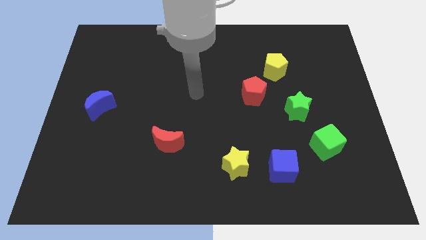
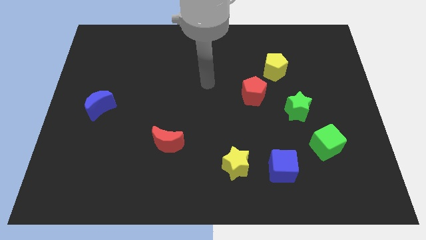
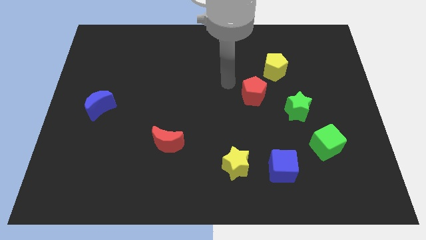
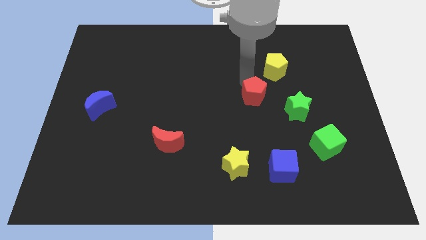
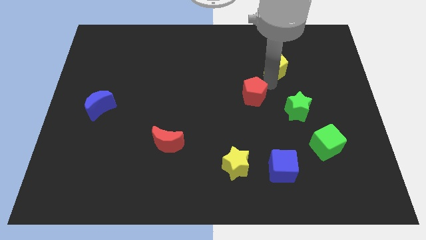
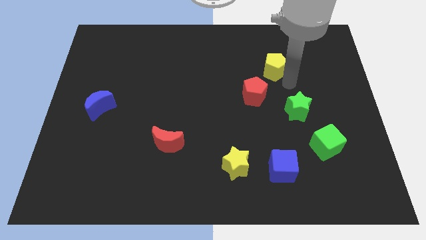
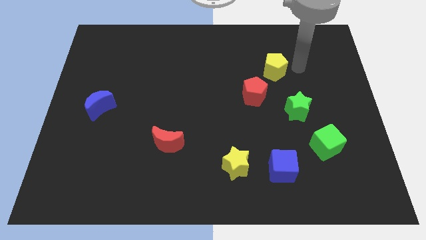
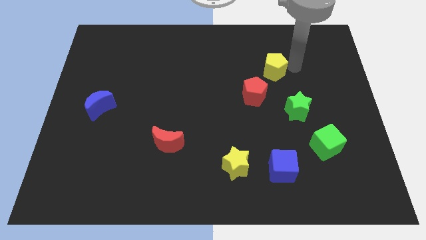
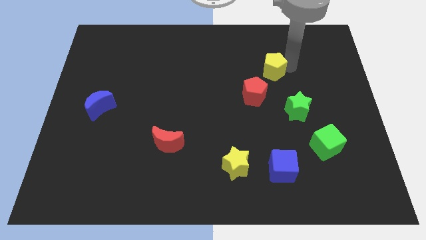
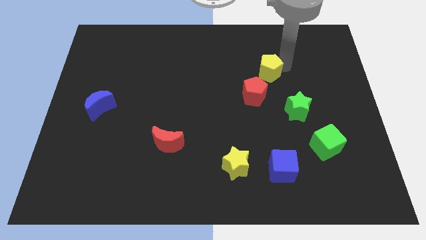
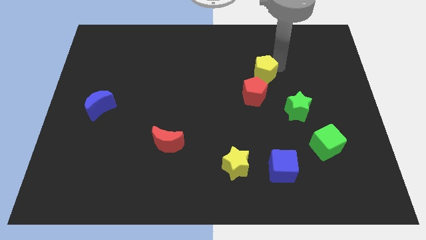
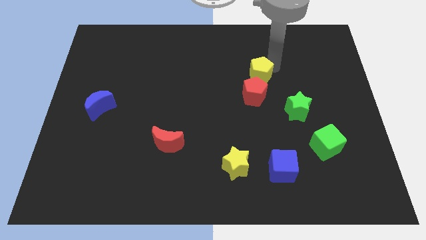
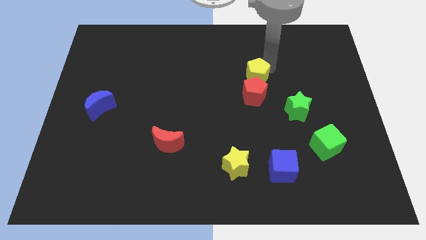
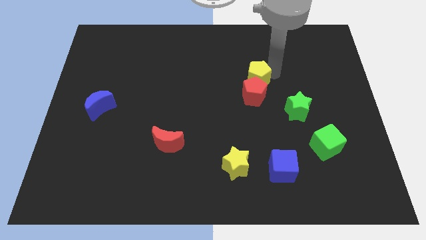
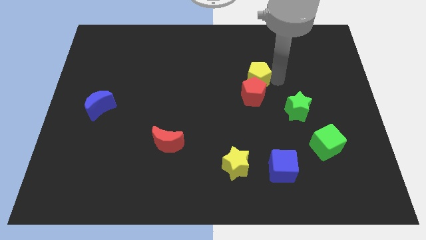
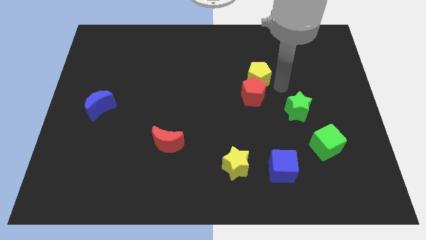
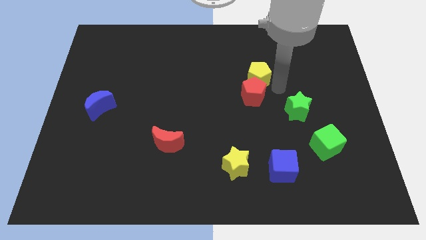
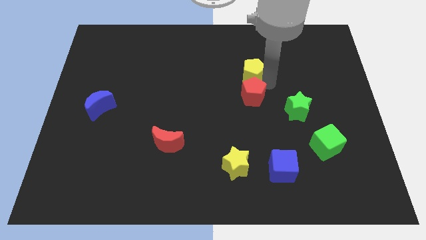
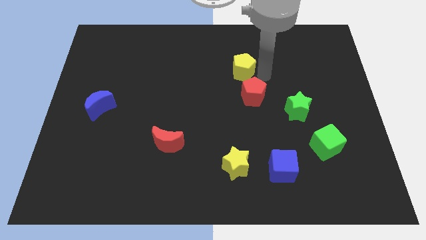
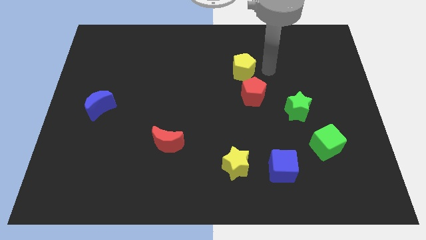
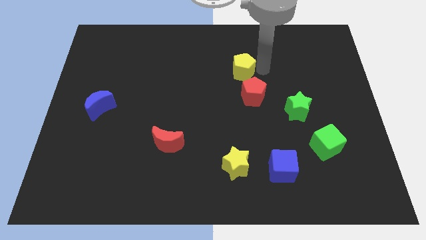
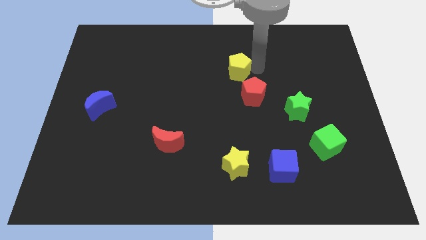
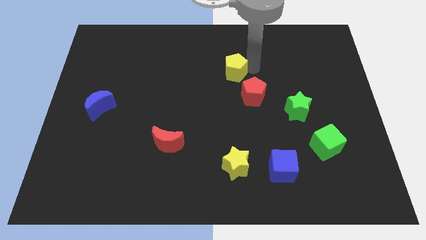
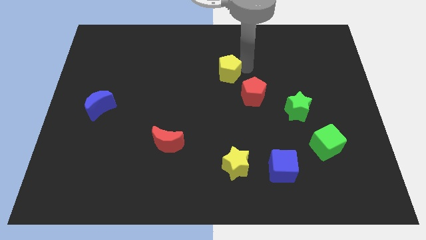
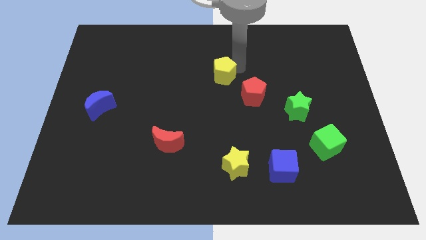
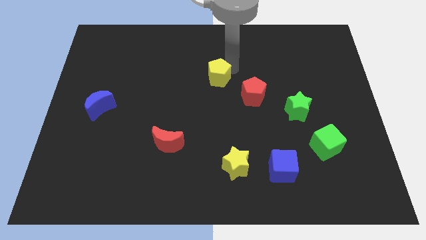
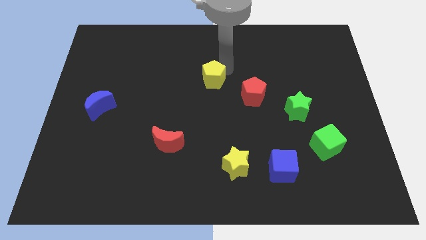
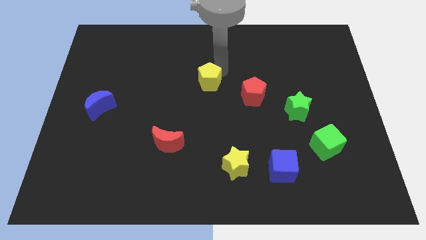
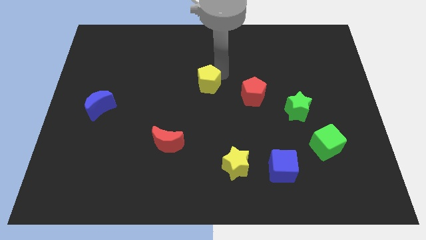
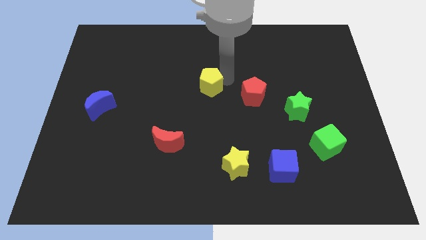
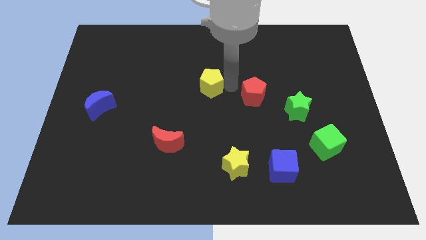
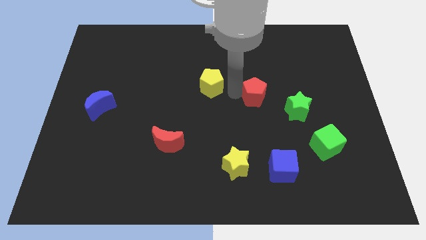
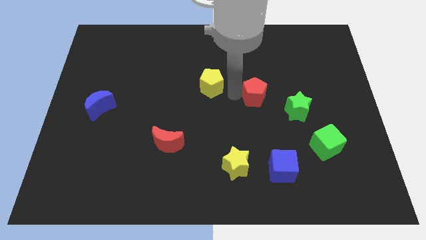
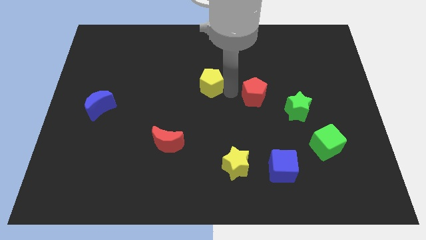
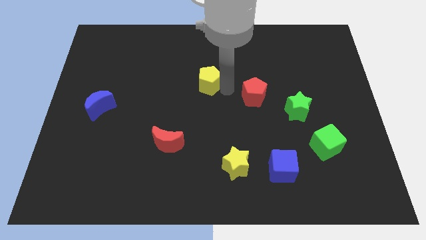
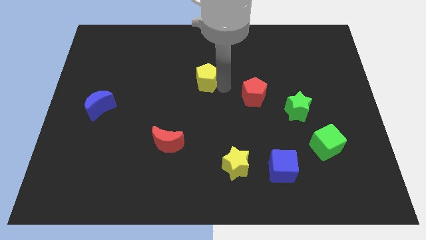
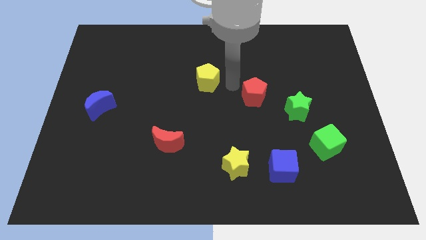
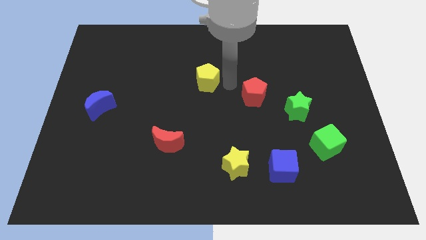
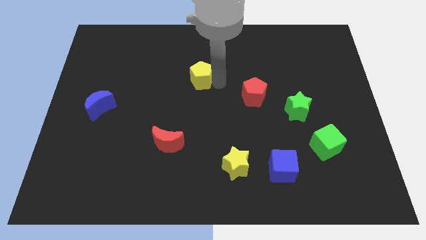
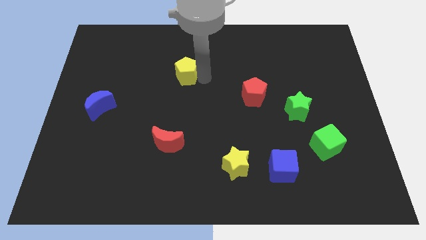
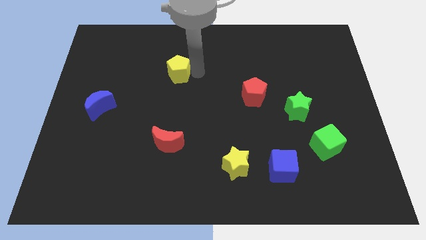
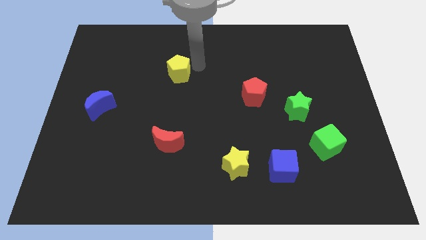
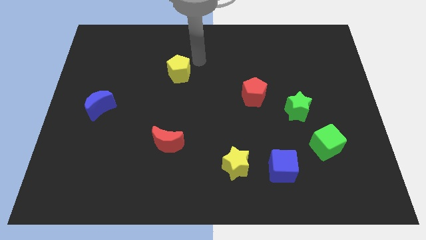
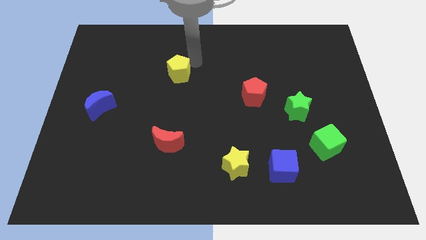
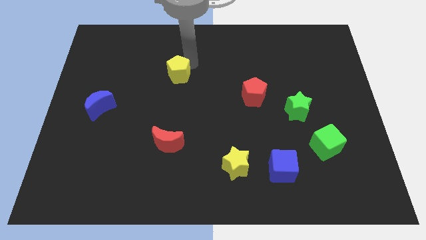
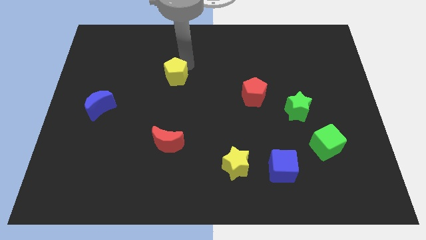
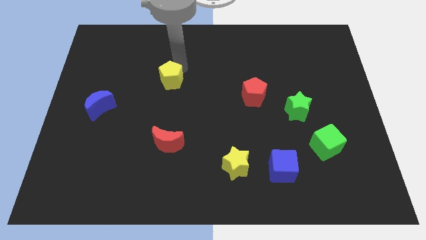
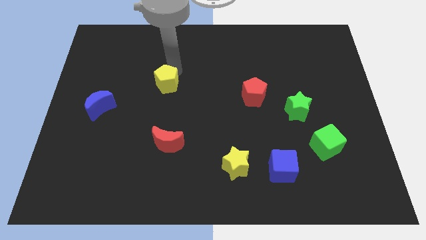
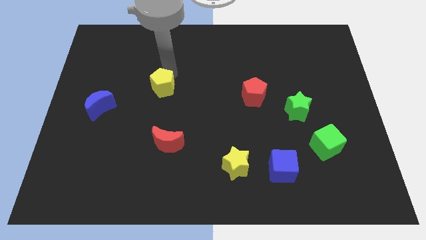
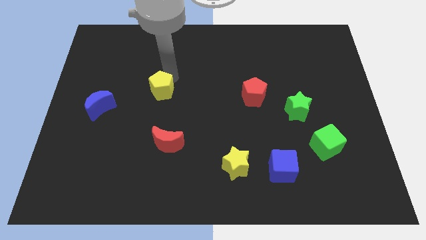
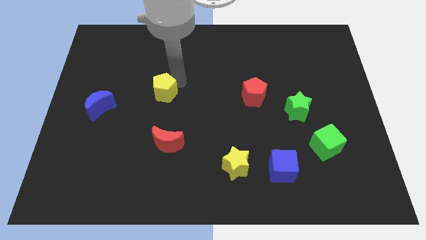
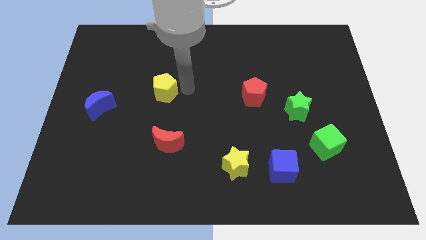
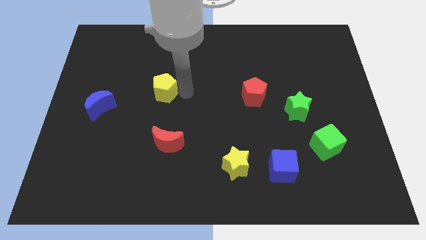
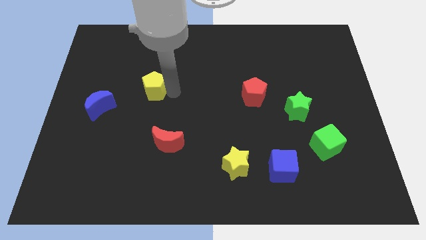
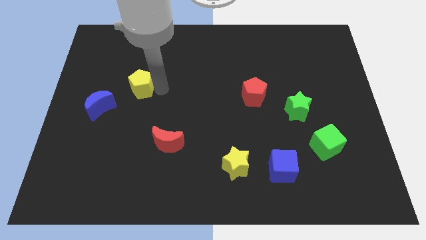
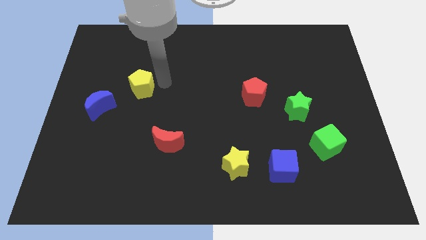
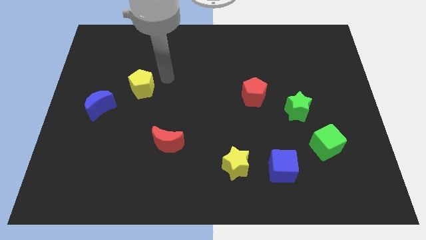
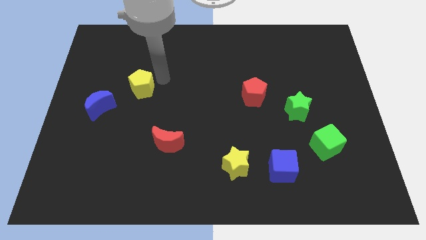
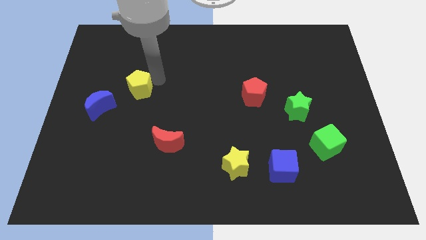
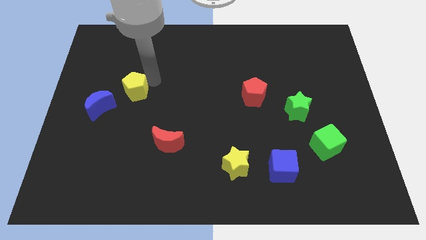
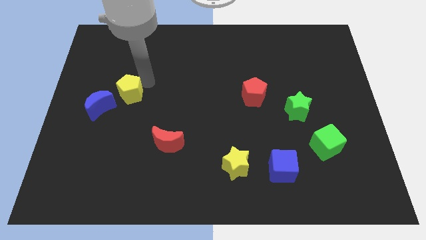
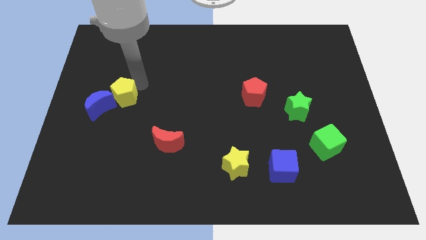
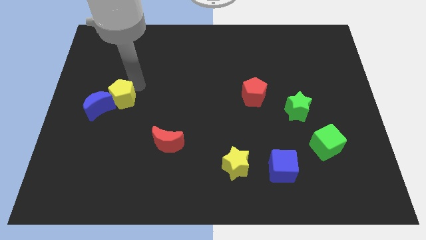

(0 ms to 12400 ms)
move the yellow pentagon close to the blue moon
